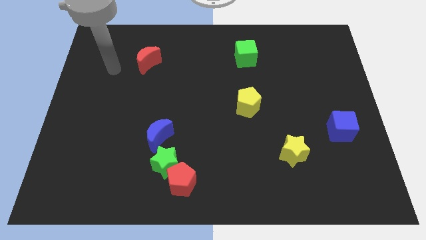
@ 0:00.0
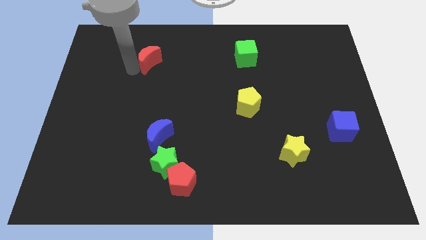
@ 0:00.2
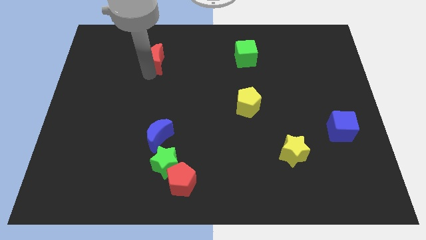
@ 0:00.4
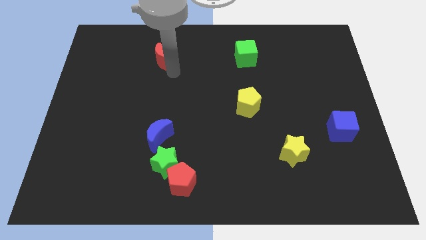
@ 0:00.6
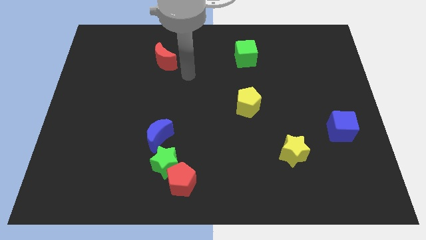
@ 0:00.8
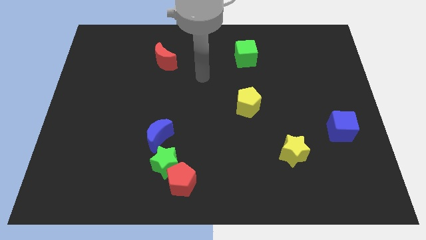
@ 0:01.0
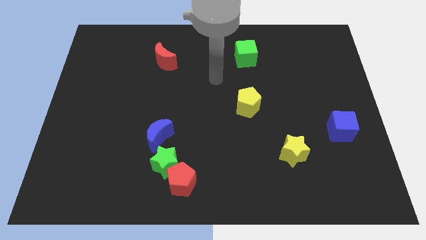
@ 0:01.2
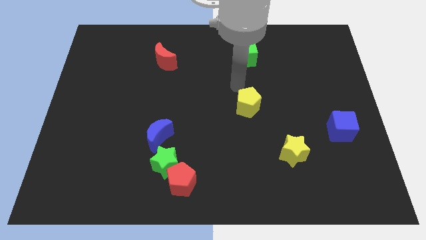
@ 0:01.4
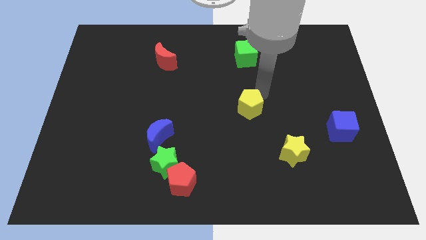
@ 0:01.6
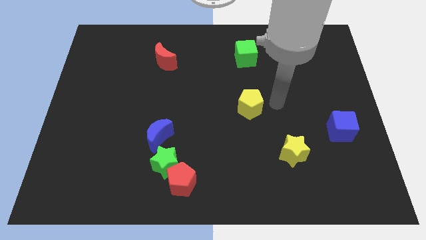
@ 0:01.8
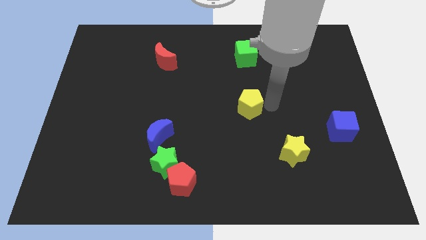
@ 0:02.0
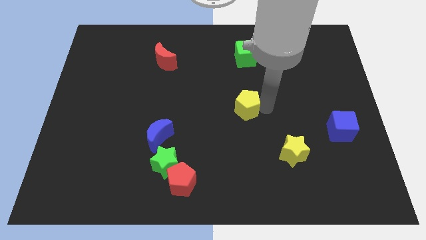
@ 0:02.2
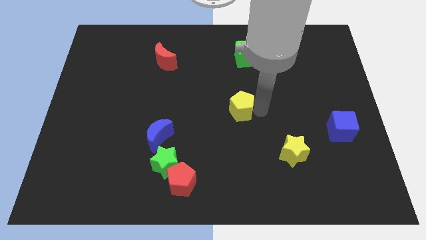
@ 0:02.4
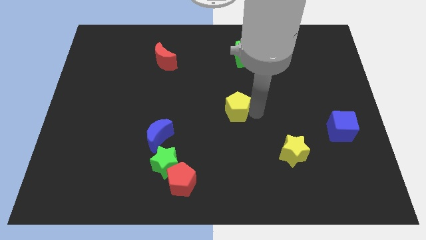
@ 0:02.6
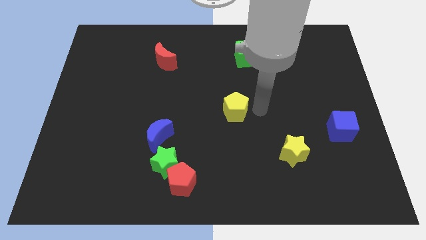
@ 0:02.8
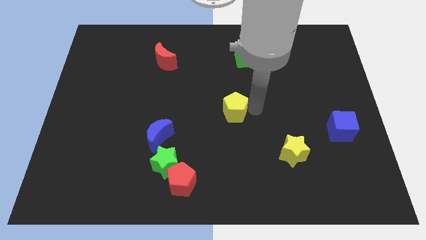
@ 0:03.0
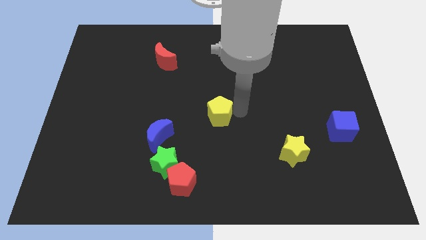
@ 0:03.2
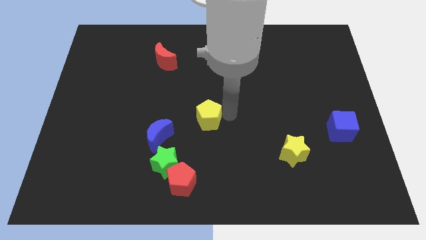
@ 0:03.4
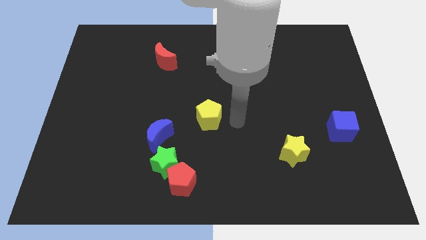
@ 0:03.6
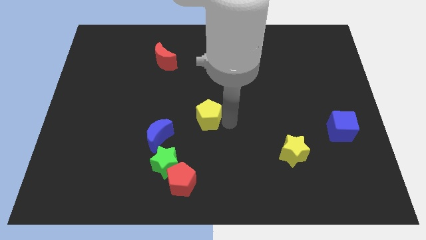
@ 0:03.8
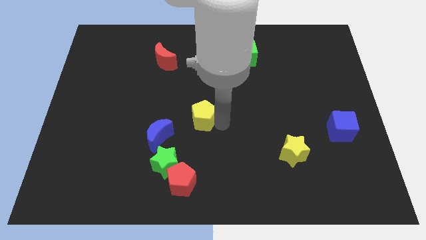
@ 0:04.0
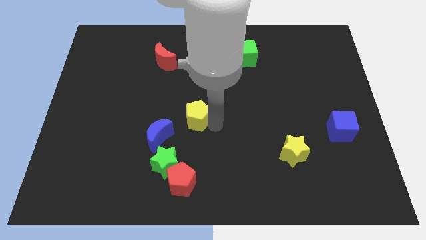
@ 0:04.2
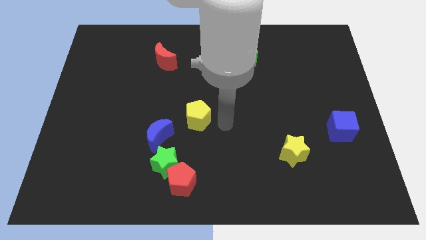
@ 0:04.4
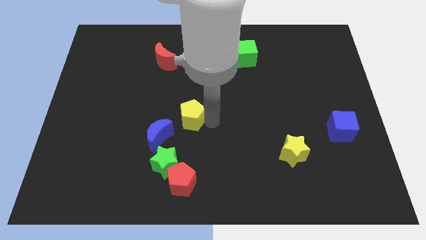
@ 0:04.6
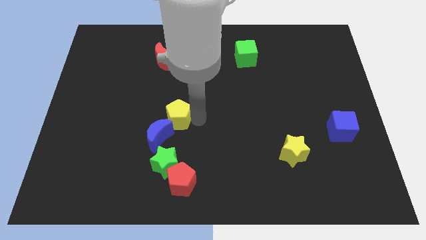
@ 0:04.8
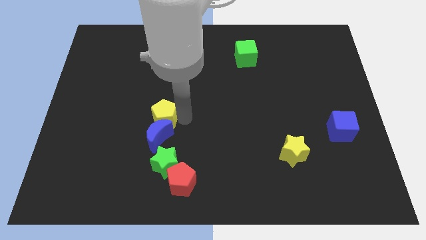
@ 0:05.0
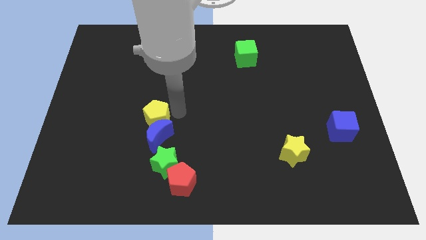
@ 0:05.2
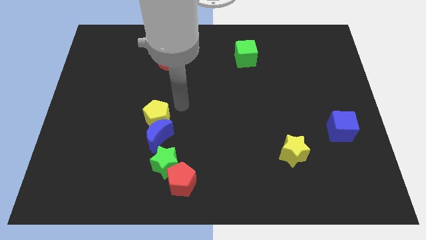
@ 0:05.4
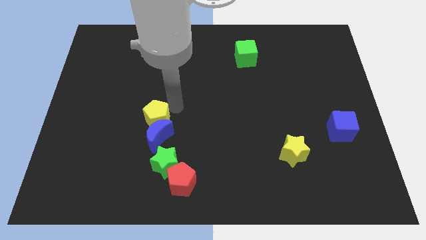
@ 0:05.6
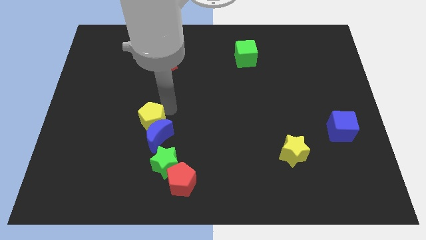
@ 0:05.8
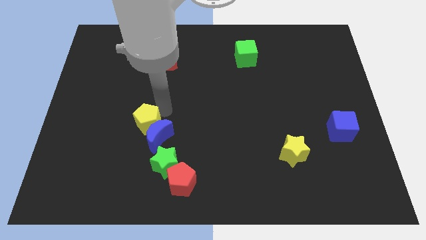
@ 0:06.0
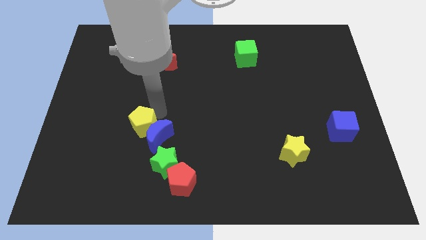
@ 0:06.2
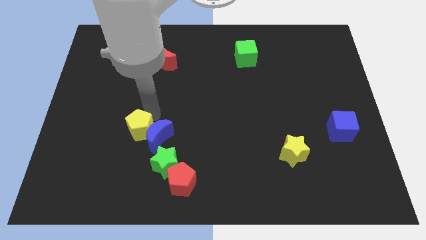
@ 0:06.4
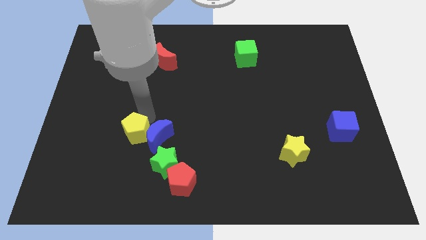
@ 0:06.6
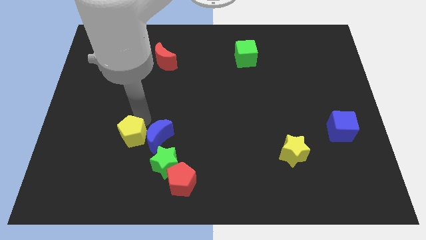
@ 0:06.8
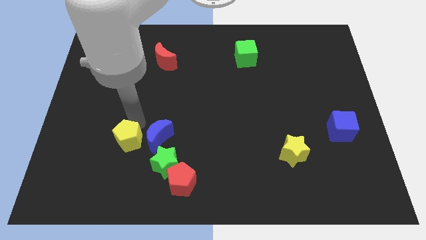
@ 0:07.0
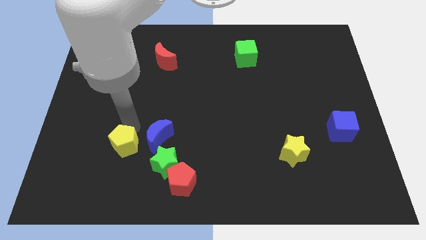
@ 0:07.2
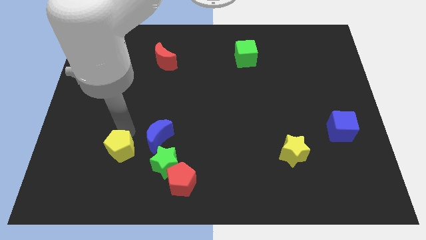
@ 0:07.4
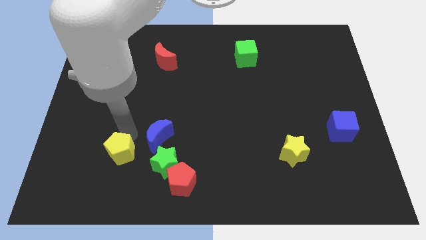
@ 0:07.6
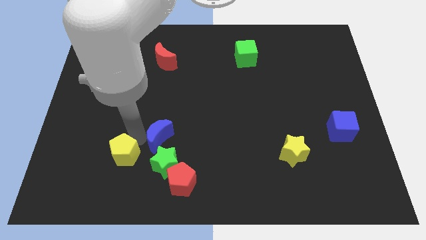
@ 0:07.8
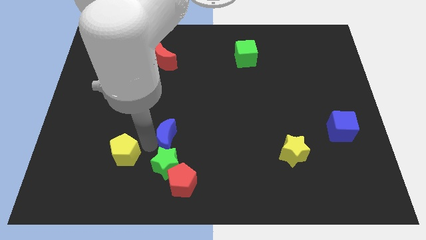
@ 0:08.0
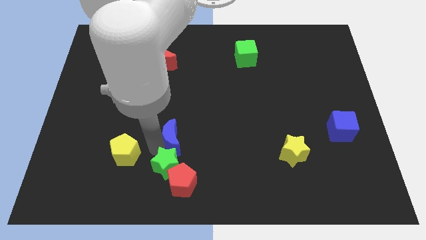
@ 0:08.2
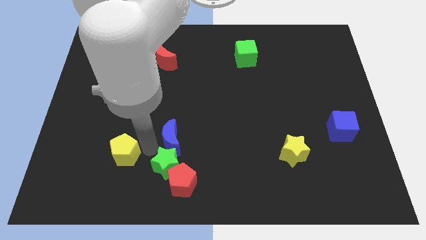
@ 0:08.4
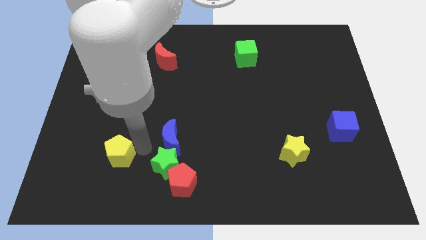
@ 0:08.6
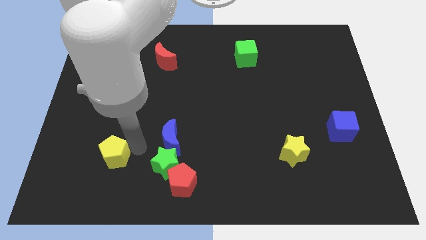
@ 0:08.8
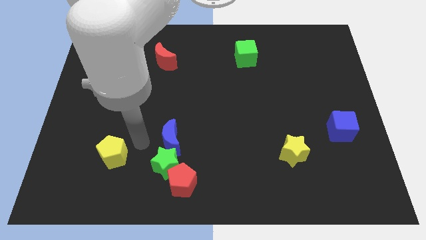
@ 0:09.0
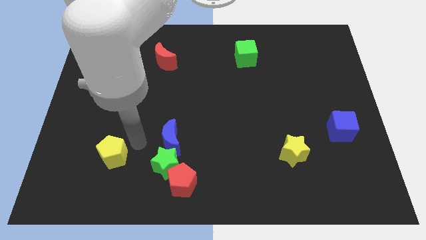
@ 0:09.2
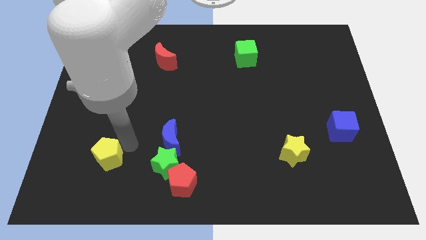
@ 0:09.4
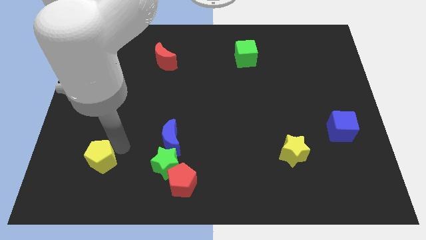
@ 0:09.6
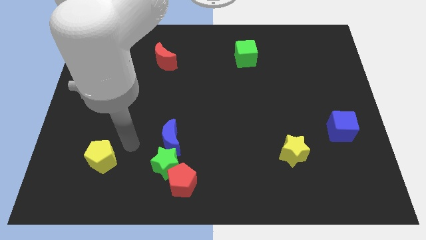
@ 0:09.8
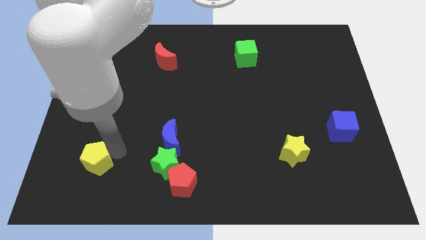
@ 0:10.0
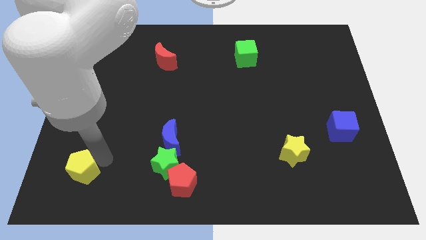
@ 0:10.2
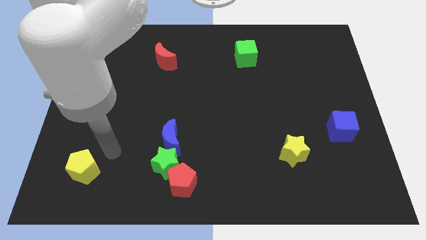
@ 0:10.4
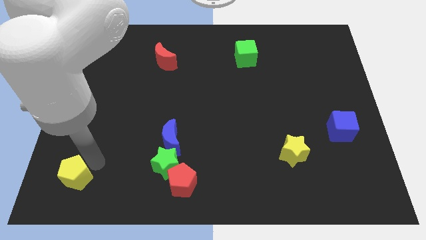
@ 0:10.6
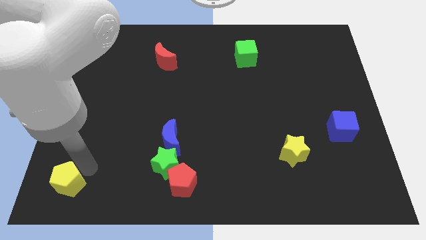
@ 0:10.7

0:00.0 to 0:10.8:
push the yellow pentagon to the bottom left
